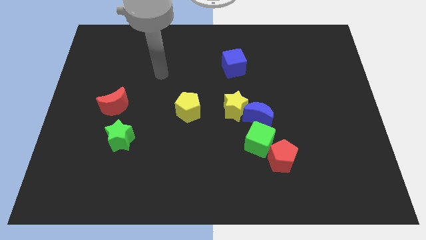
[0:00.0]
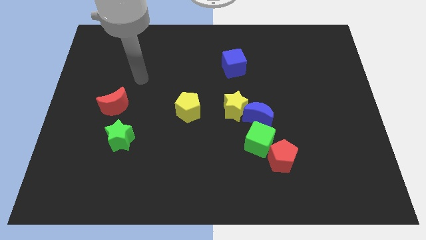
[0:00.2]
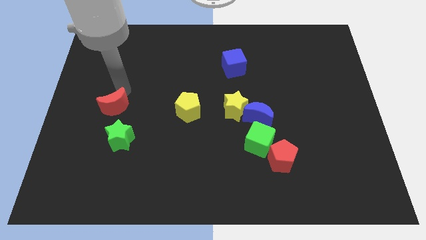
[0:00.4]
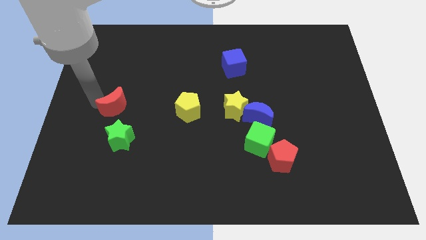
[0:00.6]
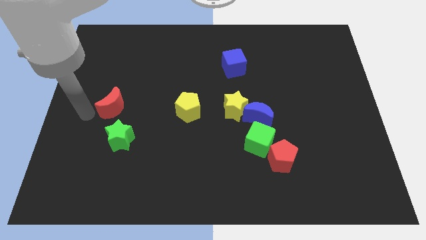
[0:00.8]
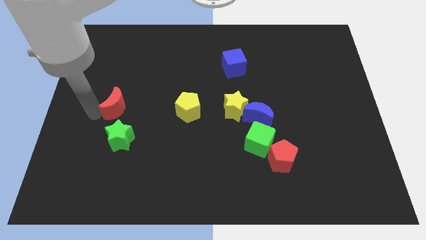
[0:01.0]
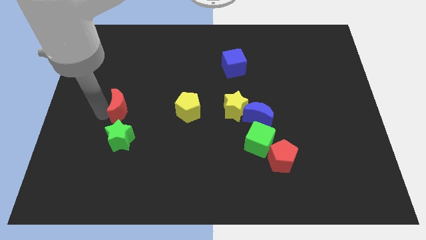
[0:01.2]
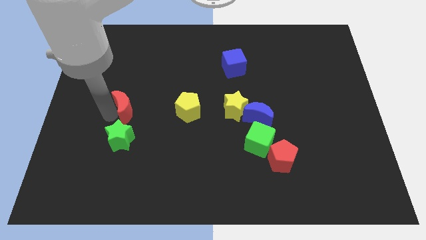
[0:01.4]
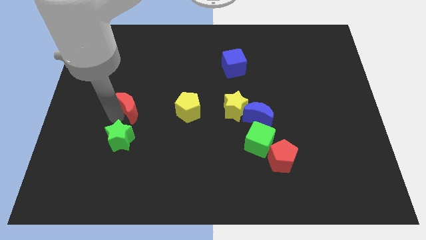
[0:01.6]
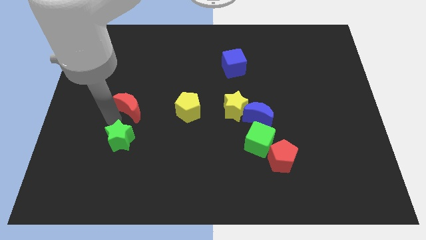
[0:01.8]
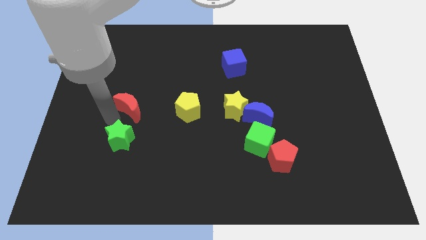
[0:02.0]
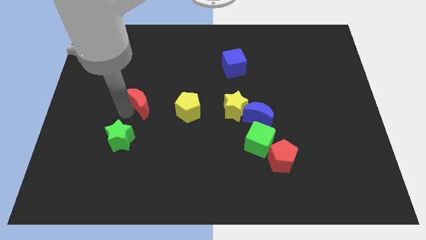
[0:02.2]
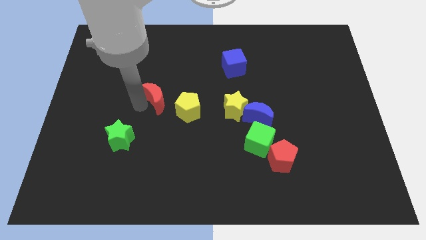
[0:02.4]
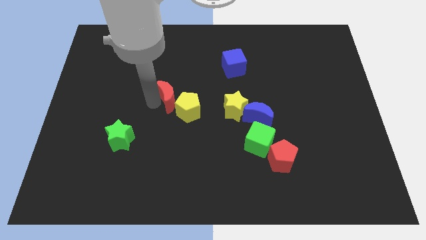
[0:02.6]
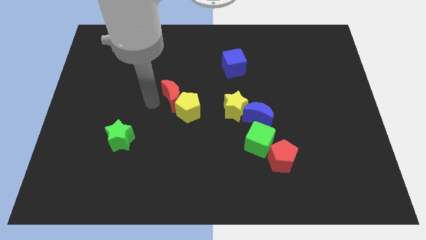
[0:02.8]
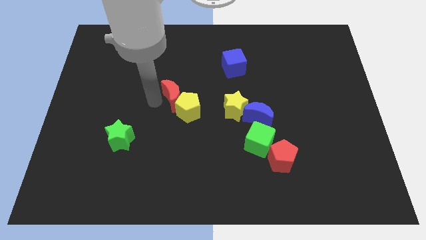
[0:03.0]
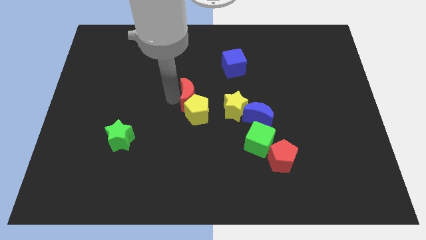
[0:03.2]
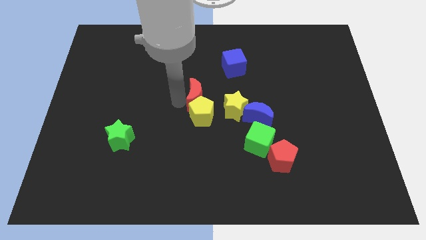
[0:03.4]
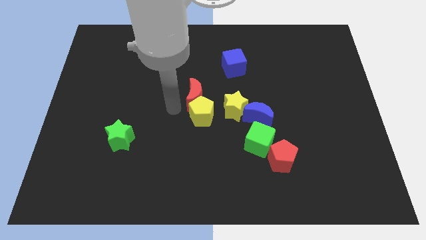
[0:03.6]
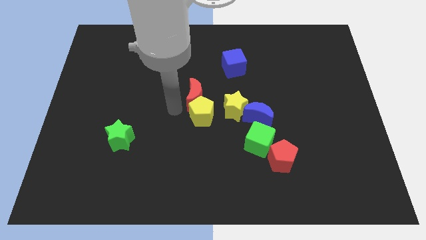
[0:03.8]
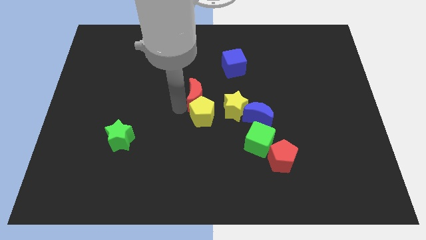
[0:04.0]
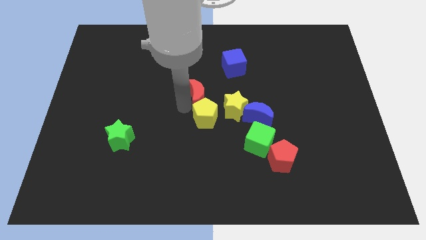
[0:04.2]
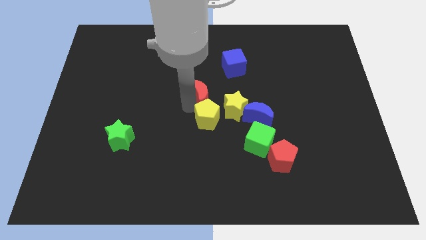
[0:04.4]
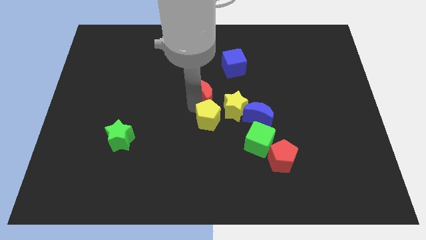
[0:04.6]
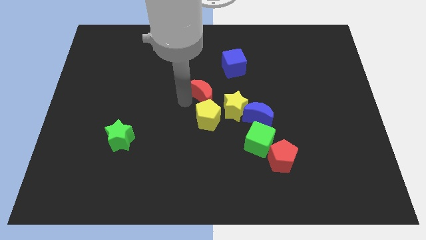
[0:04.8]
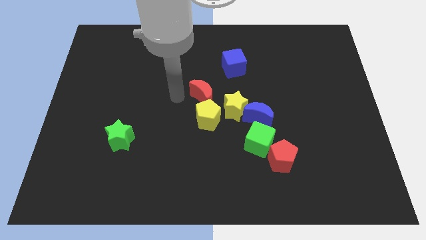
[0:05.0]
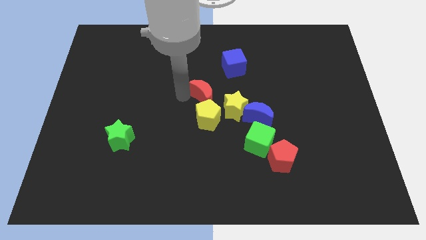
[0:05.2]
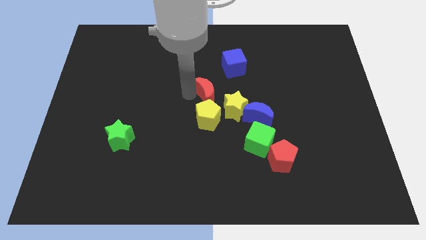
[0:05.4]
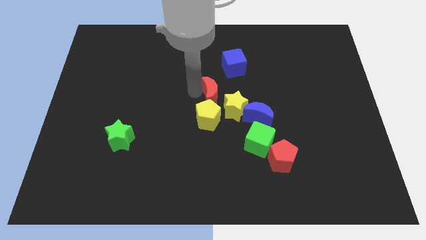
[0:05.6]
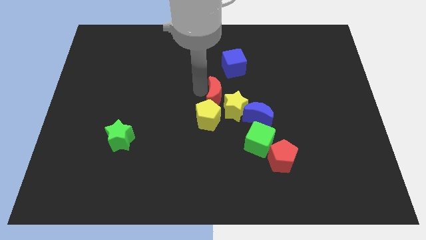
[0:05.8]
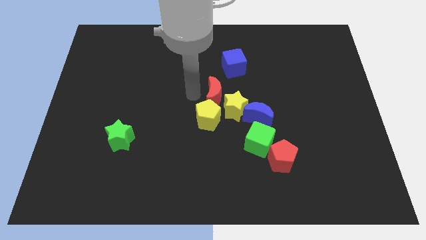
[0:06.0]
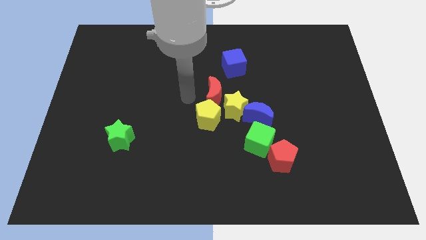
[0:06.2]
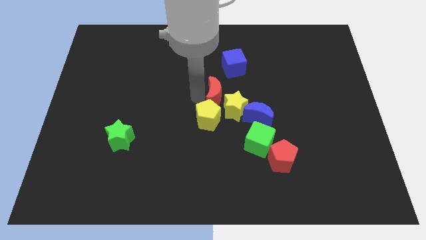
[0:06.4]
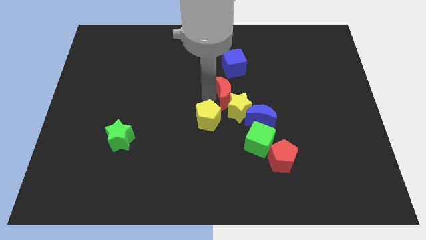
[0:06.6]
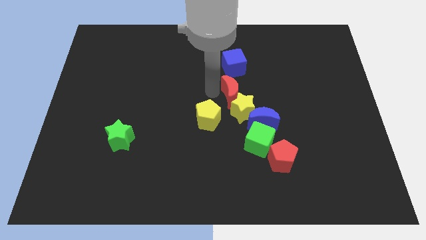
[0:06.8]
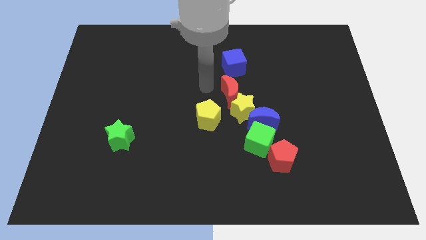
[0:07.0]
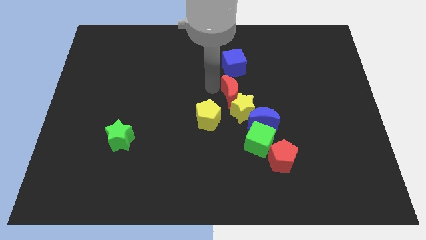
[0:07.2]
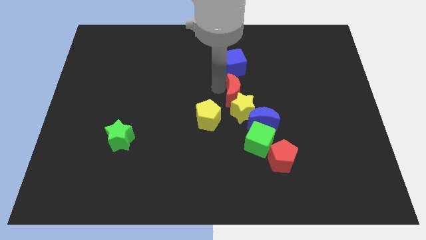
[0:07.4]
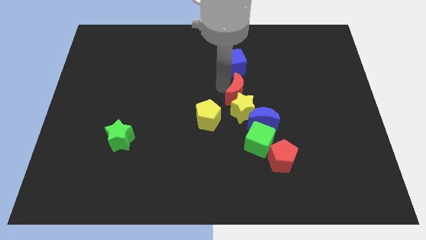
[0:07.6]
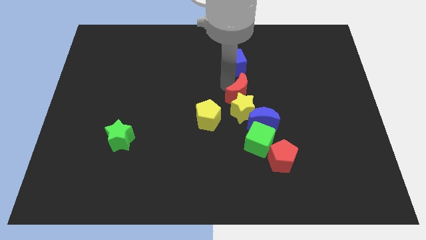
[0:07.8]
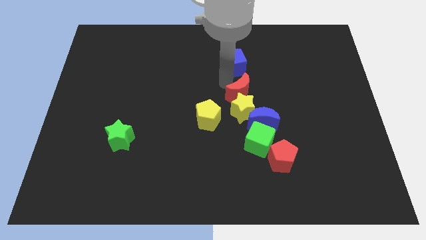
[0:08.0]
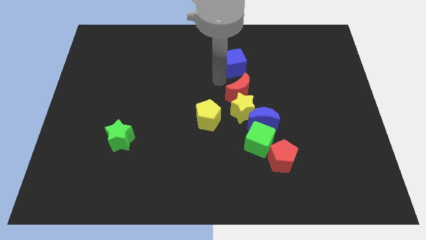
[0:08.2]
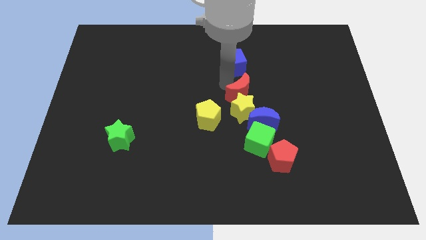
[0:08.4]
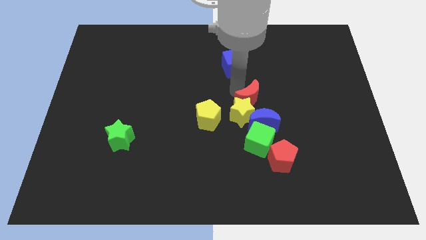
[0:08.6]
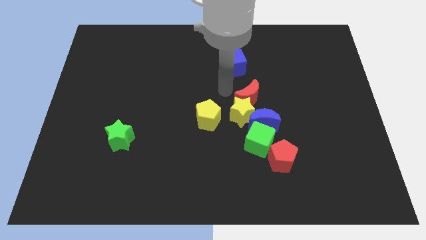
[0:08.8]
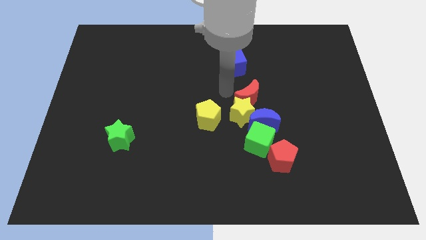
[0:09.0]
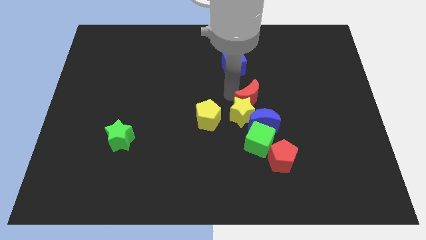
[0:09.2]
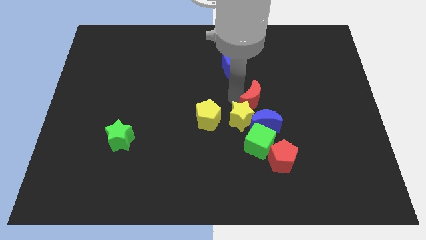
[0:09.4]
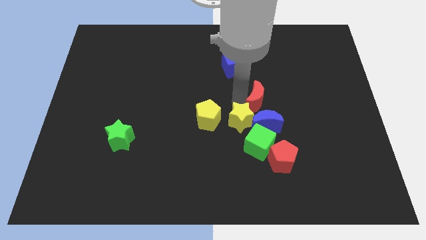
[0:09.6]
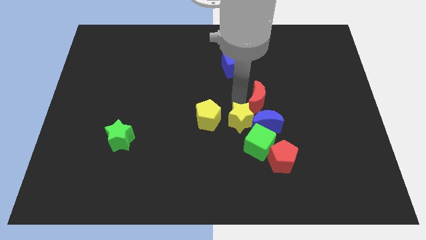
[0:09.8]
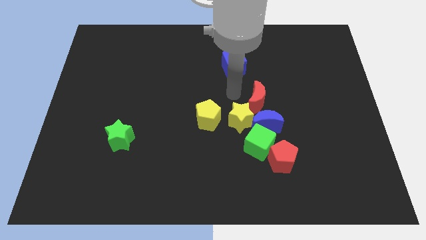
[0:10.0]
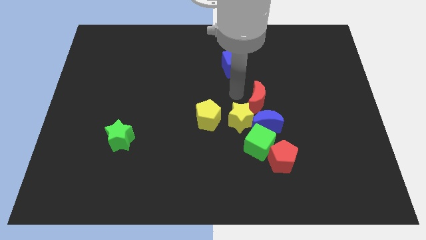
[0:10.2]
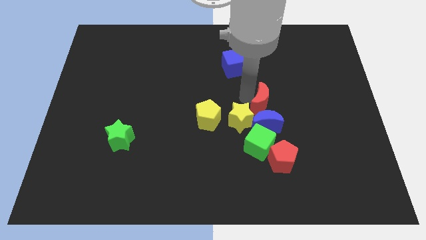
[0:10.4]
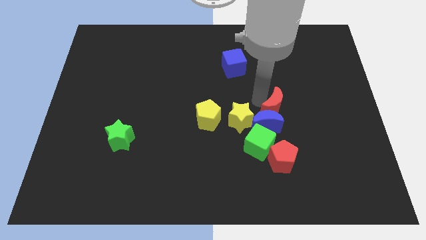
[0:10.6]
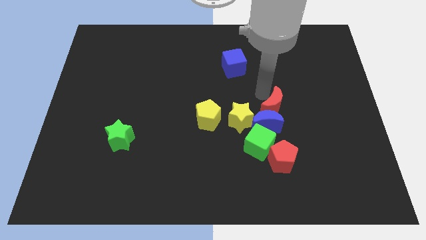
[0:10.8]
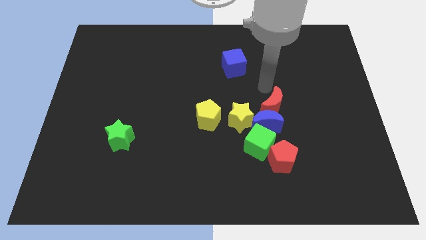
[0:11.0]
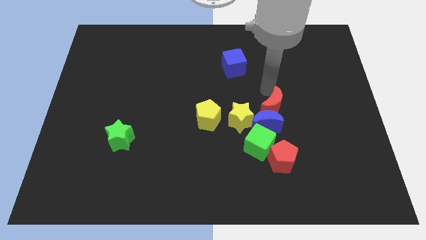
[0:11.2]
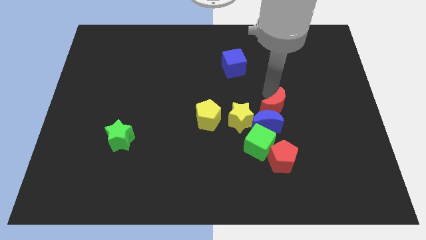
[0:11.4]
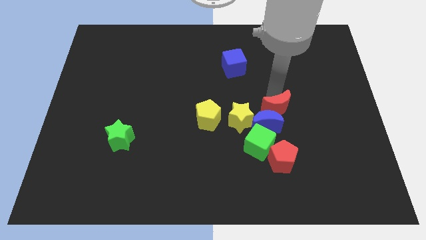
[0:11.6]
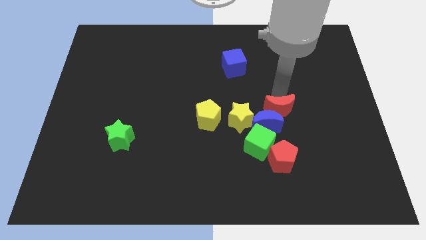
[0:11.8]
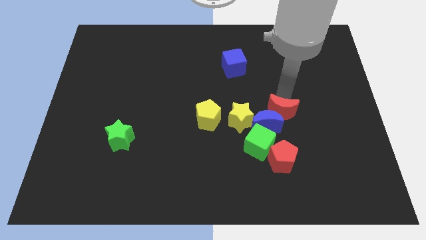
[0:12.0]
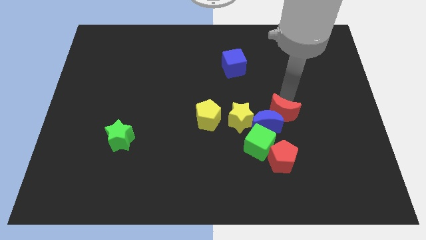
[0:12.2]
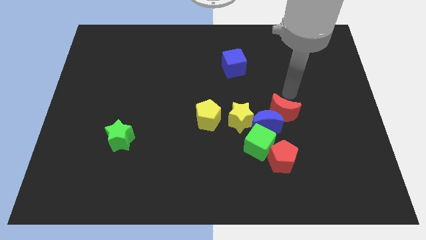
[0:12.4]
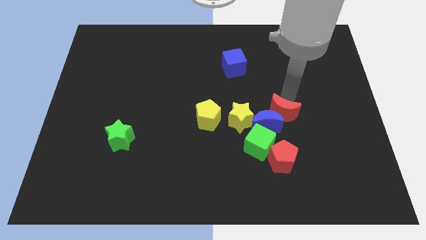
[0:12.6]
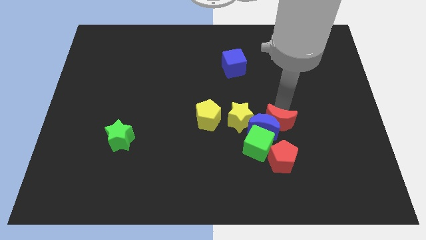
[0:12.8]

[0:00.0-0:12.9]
put the red moon to the bottom right of the blue moon

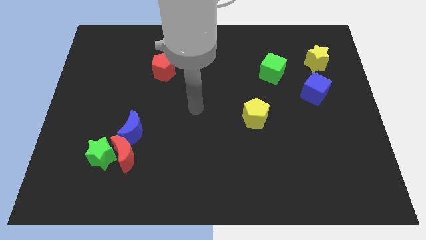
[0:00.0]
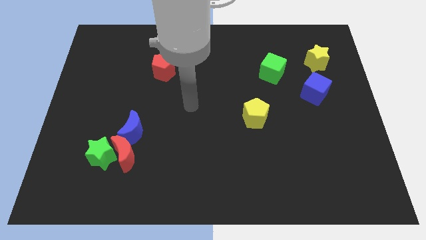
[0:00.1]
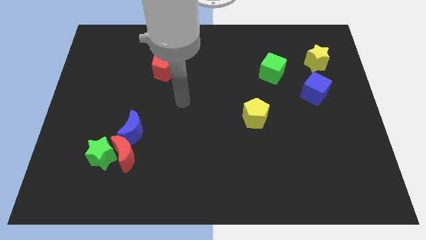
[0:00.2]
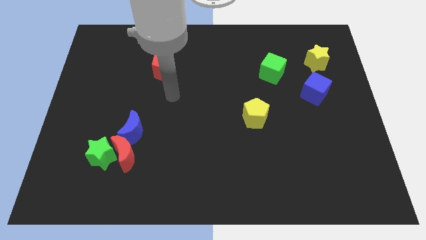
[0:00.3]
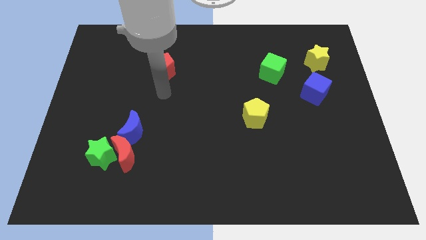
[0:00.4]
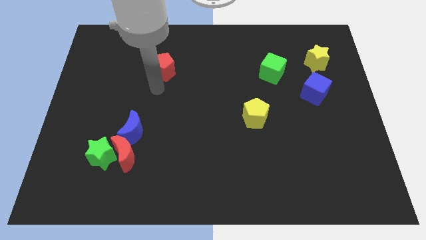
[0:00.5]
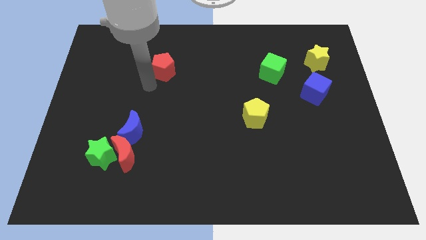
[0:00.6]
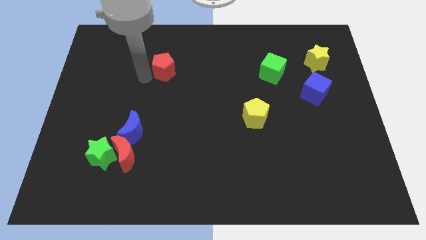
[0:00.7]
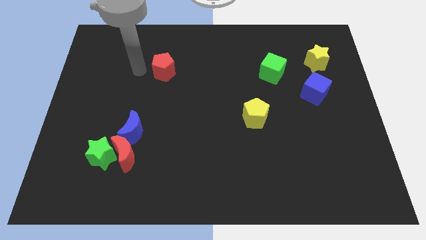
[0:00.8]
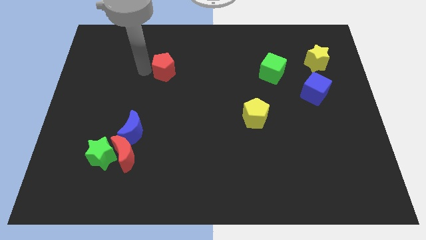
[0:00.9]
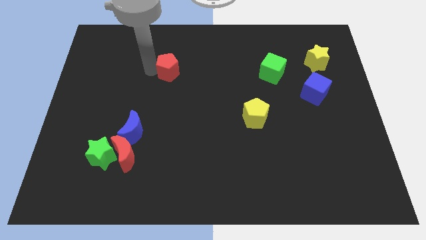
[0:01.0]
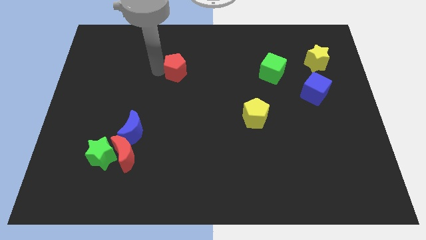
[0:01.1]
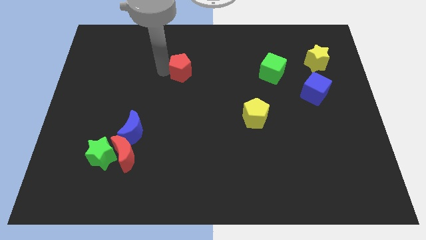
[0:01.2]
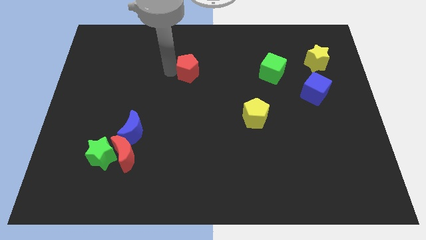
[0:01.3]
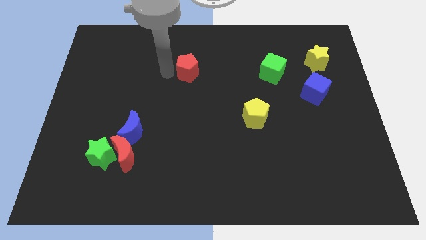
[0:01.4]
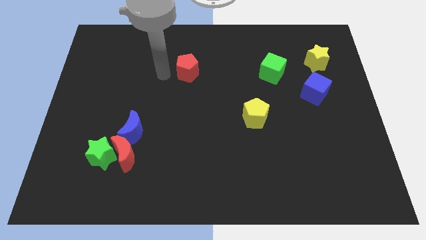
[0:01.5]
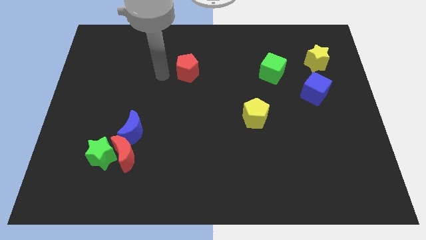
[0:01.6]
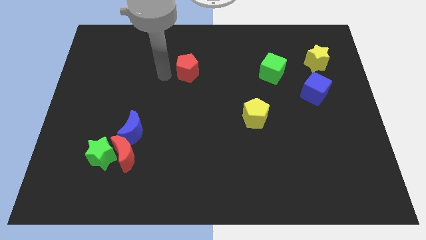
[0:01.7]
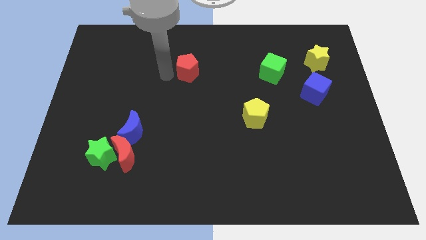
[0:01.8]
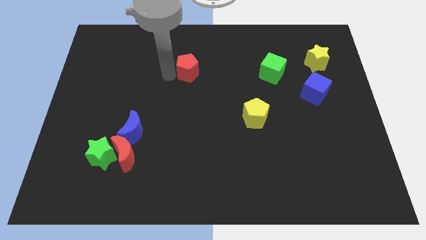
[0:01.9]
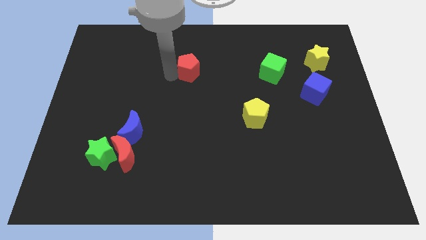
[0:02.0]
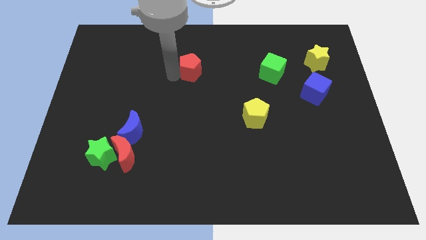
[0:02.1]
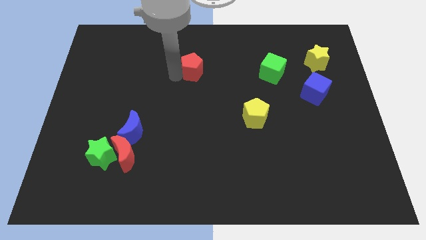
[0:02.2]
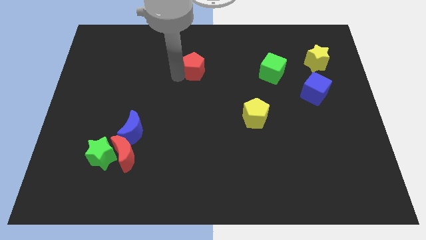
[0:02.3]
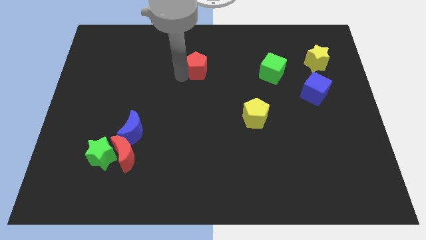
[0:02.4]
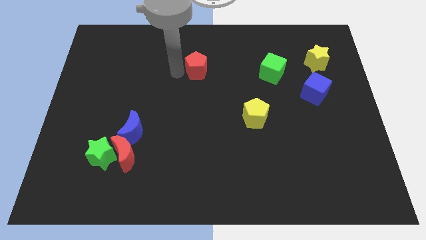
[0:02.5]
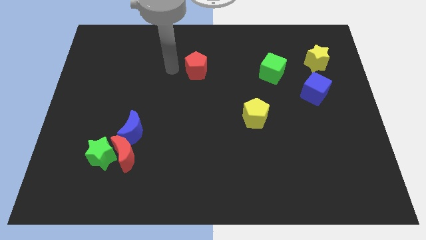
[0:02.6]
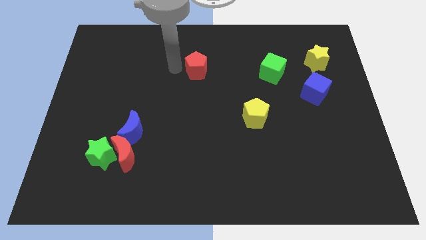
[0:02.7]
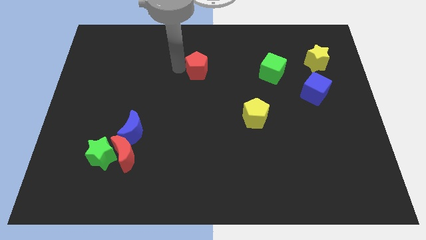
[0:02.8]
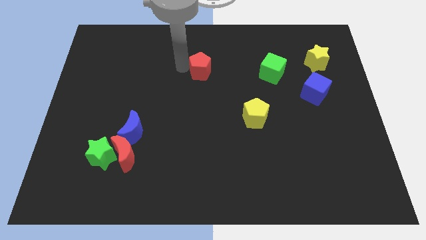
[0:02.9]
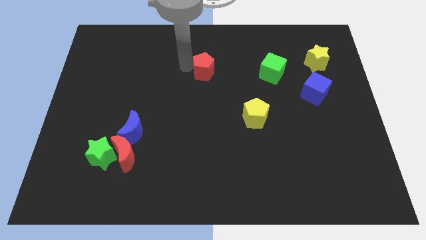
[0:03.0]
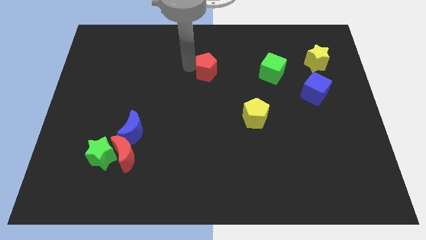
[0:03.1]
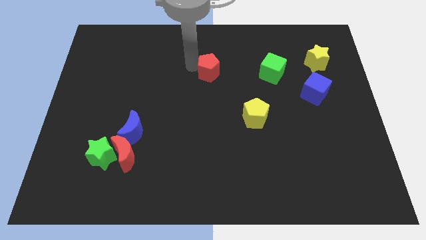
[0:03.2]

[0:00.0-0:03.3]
put the red pentagon left of the green cube
